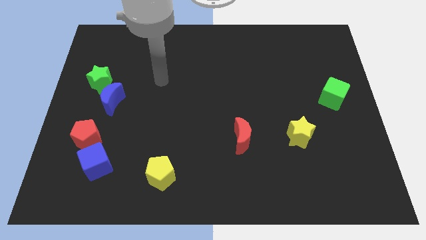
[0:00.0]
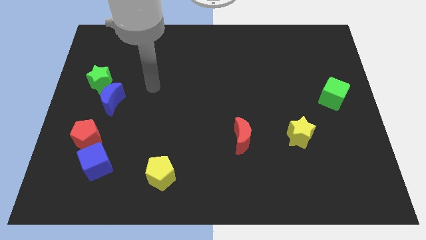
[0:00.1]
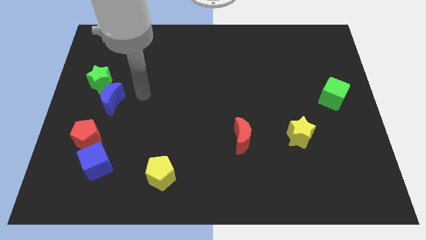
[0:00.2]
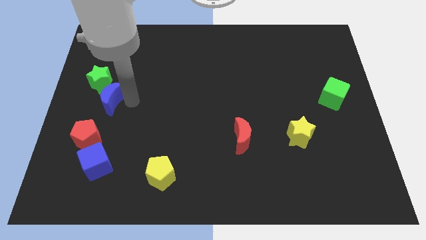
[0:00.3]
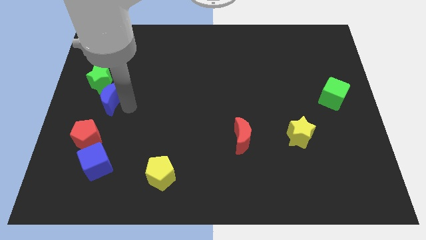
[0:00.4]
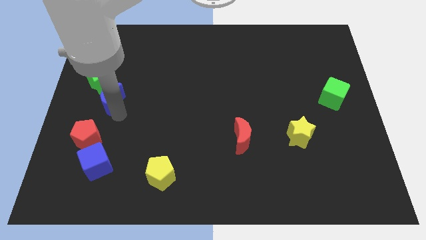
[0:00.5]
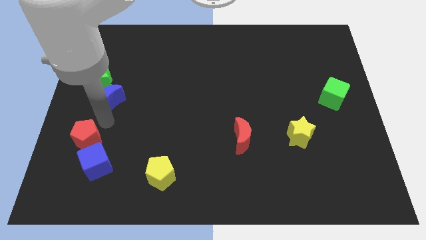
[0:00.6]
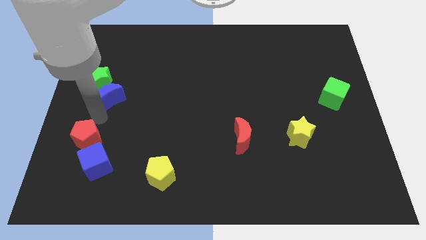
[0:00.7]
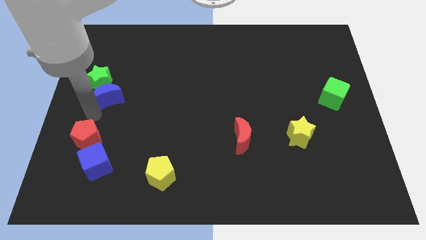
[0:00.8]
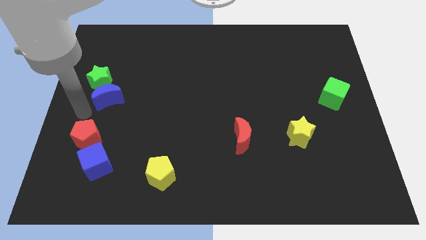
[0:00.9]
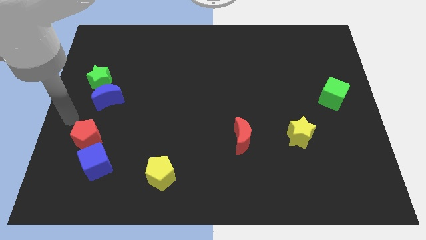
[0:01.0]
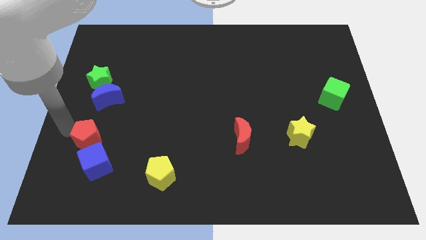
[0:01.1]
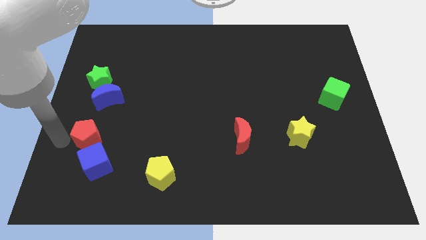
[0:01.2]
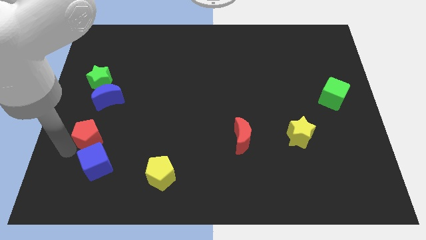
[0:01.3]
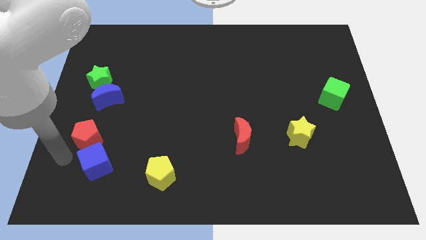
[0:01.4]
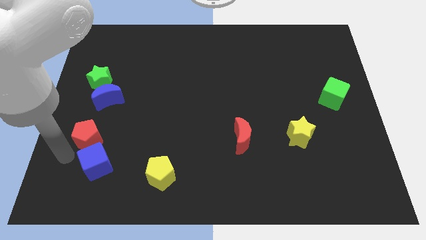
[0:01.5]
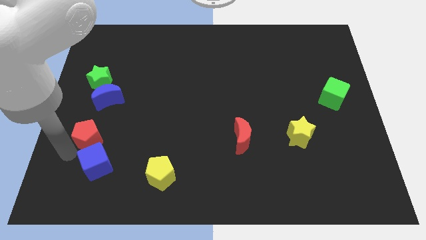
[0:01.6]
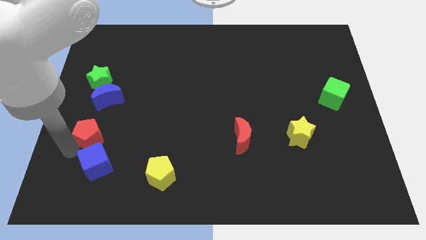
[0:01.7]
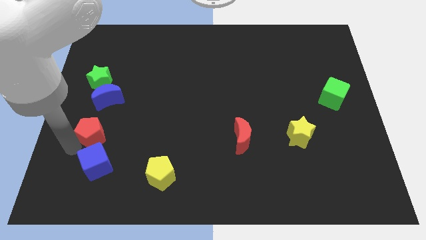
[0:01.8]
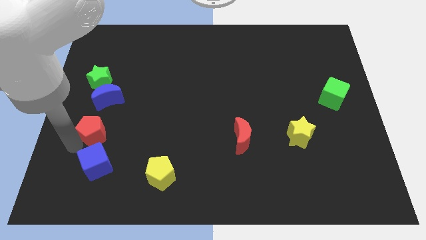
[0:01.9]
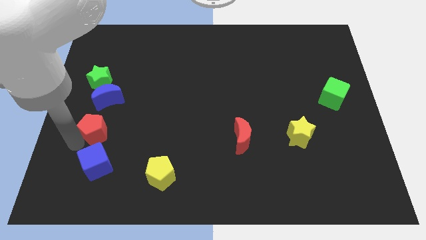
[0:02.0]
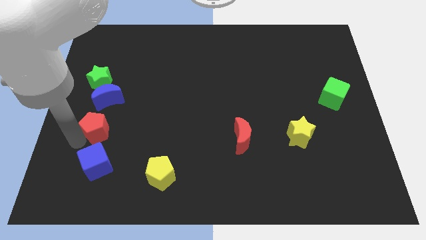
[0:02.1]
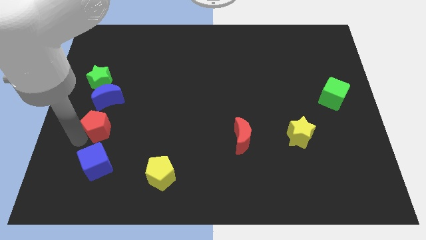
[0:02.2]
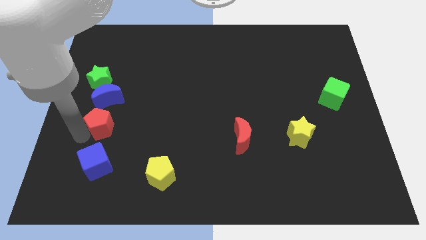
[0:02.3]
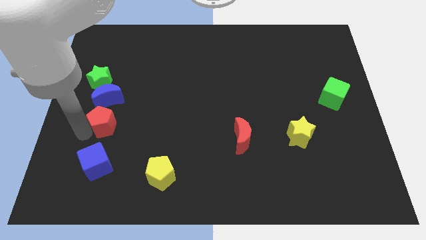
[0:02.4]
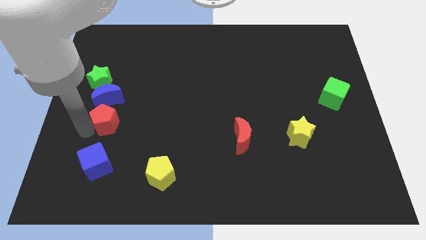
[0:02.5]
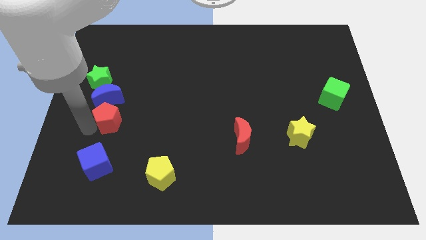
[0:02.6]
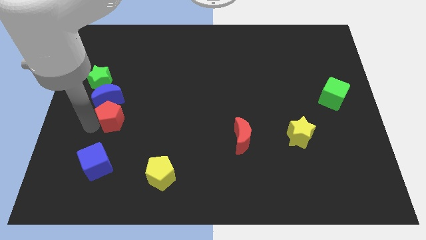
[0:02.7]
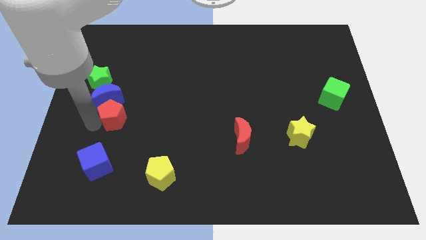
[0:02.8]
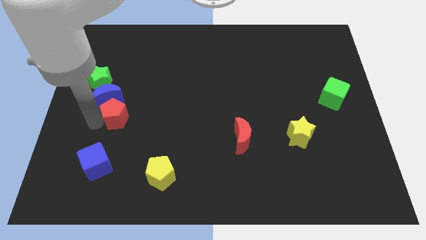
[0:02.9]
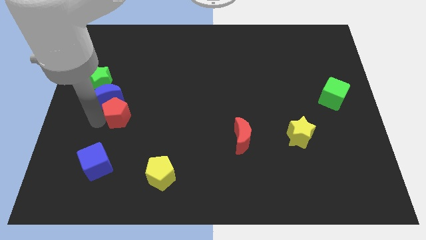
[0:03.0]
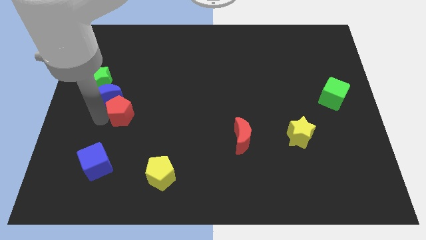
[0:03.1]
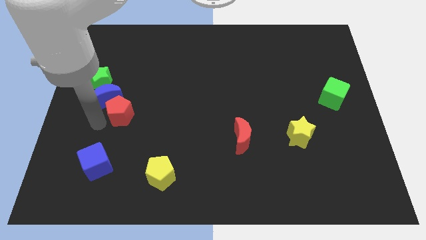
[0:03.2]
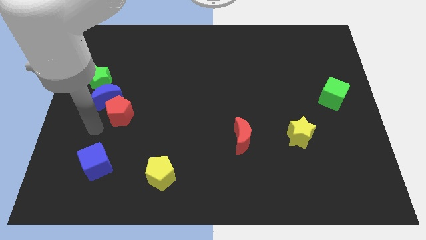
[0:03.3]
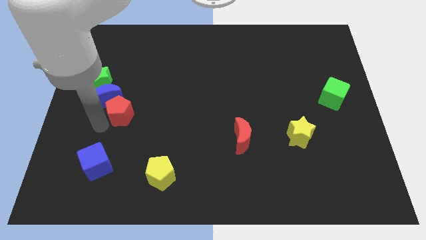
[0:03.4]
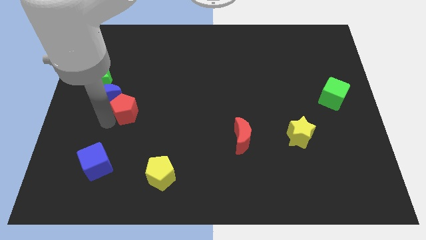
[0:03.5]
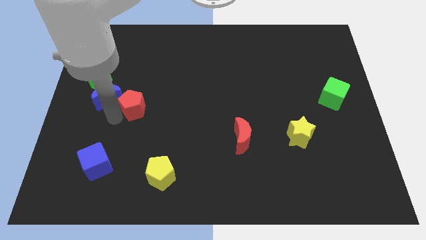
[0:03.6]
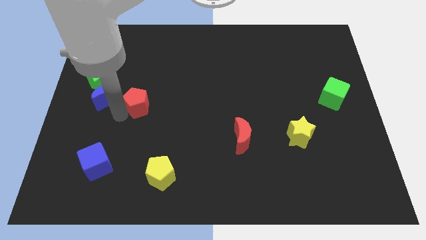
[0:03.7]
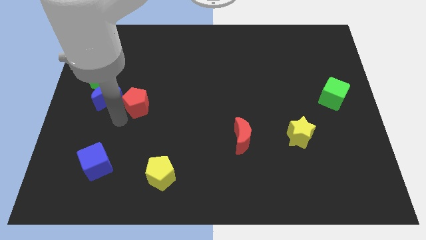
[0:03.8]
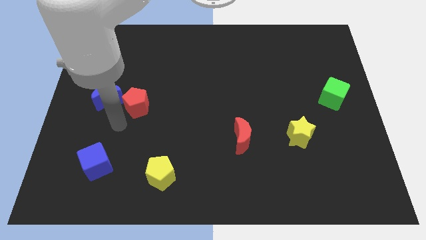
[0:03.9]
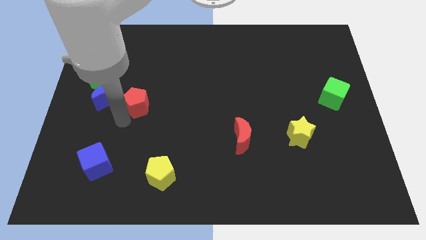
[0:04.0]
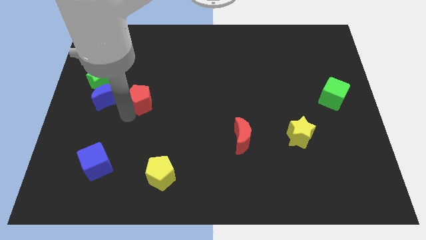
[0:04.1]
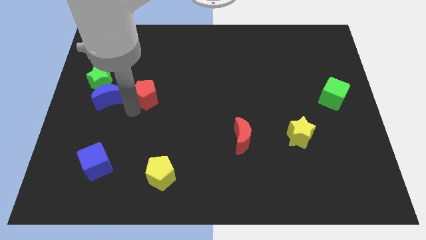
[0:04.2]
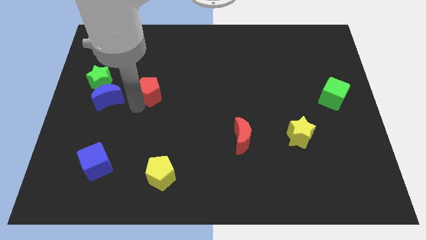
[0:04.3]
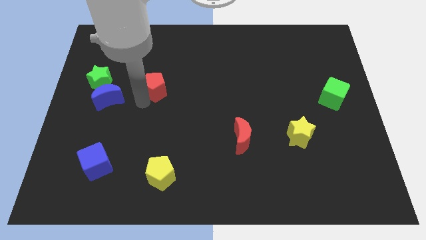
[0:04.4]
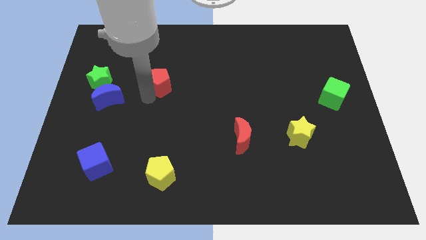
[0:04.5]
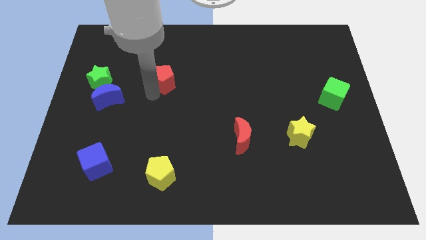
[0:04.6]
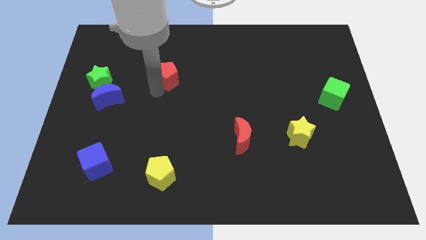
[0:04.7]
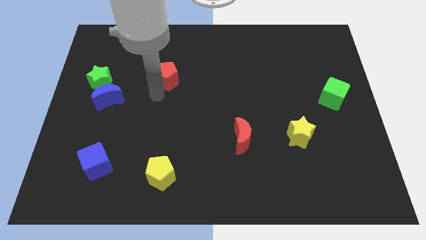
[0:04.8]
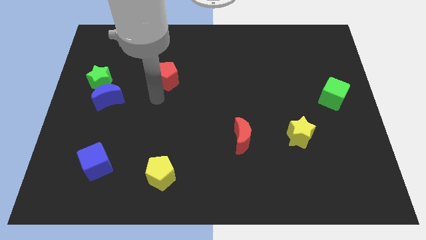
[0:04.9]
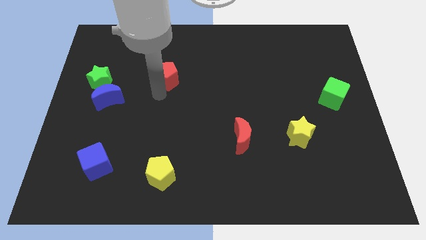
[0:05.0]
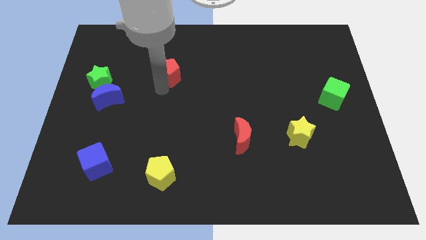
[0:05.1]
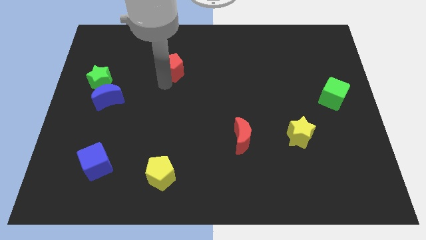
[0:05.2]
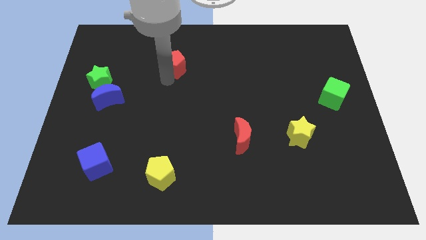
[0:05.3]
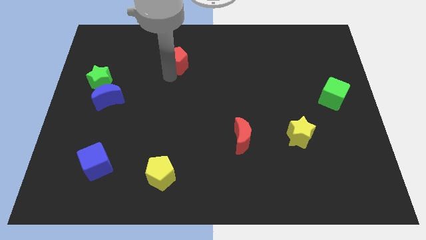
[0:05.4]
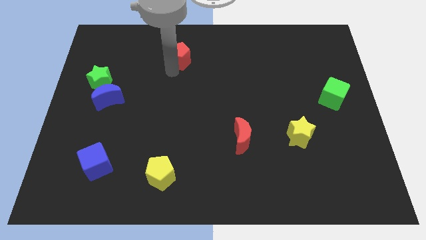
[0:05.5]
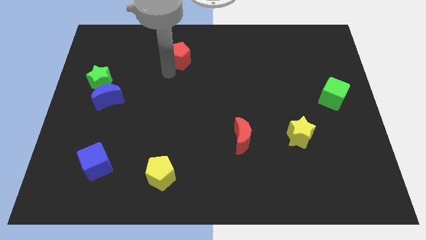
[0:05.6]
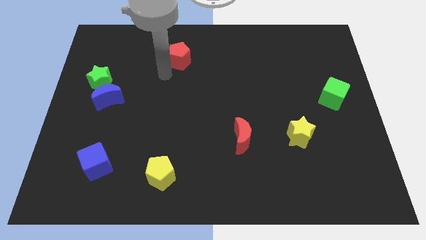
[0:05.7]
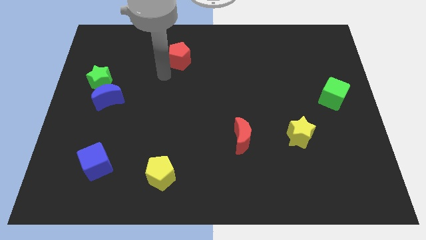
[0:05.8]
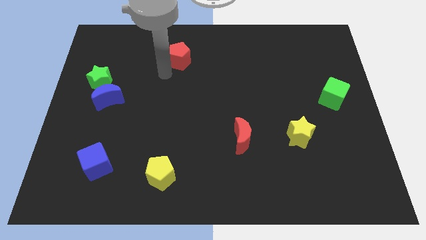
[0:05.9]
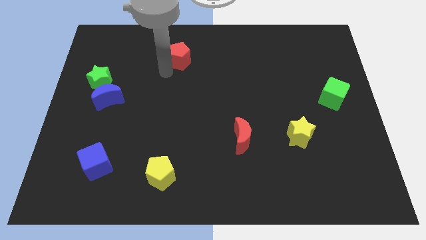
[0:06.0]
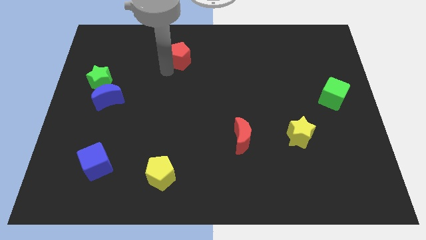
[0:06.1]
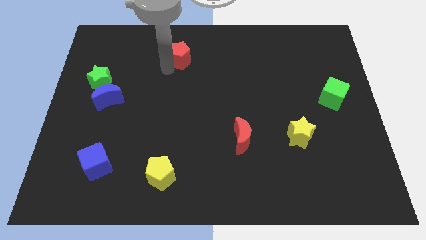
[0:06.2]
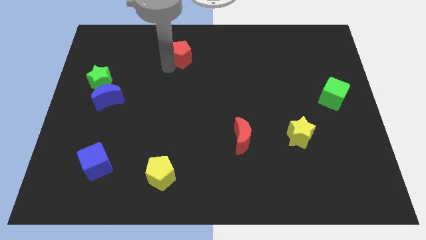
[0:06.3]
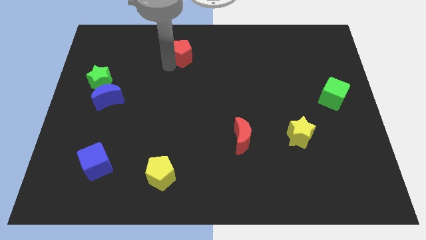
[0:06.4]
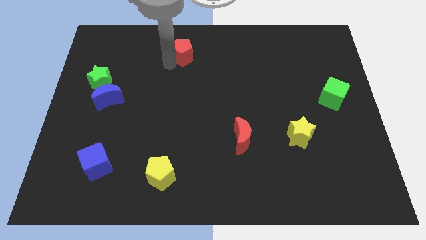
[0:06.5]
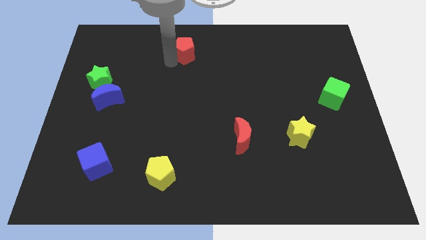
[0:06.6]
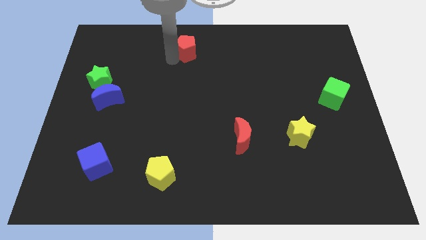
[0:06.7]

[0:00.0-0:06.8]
move the red pentagon to the towards your base

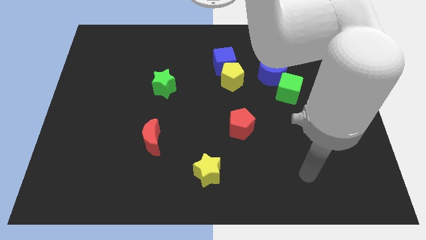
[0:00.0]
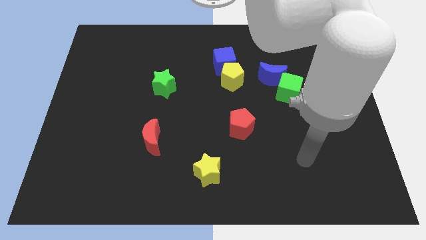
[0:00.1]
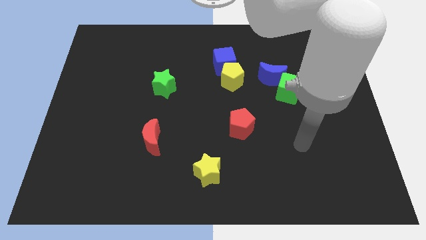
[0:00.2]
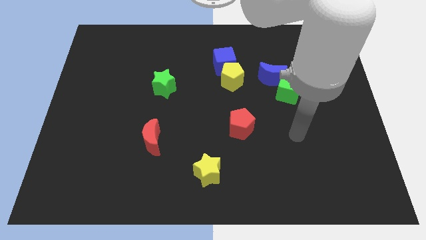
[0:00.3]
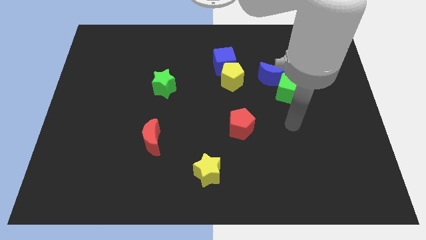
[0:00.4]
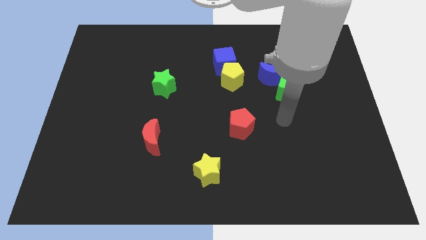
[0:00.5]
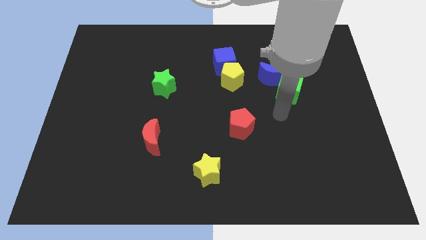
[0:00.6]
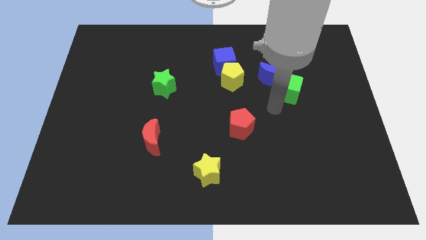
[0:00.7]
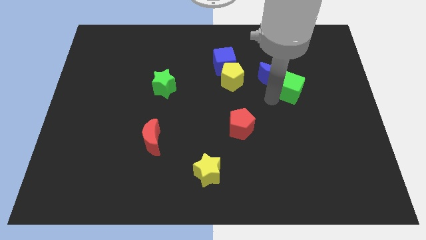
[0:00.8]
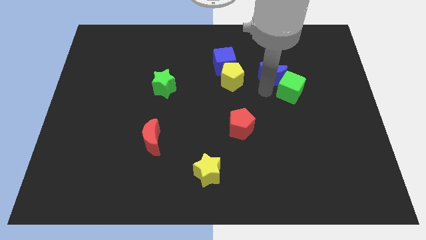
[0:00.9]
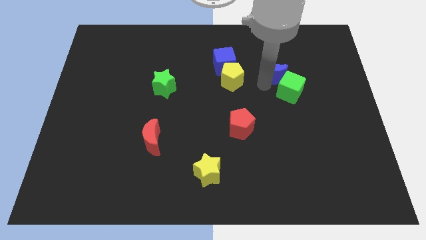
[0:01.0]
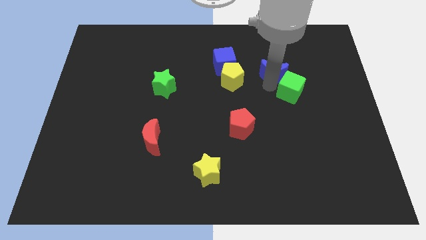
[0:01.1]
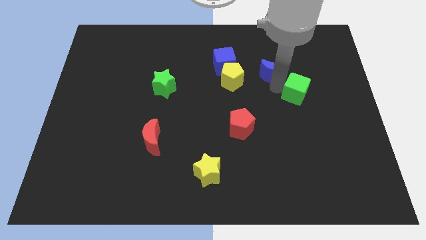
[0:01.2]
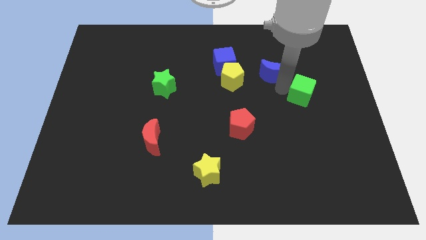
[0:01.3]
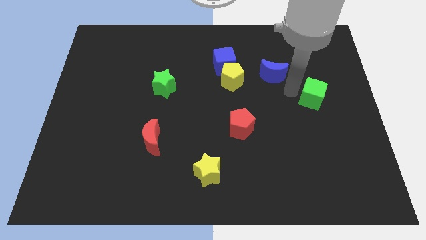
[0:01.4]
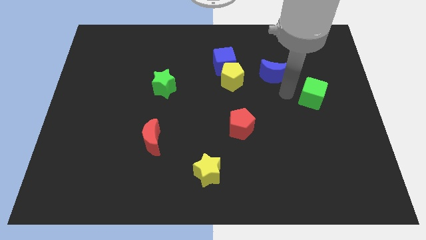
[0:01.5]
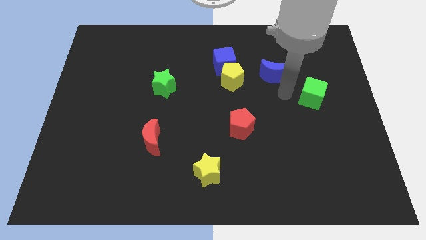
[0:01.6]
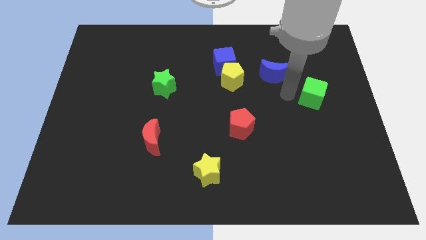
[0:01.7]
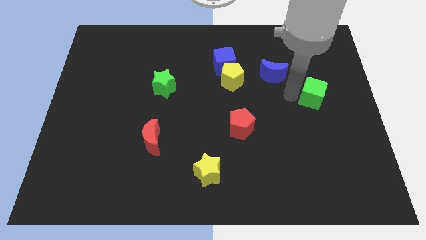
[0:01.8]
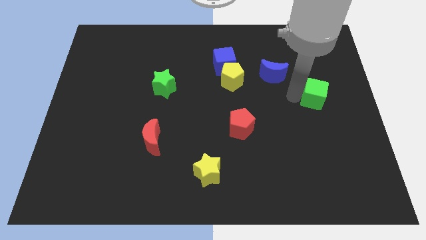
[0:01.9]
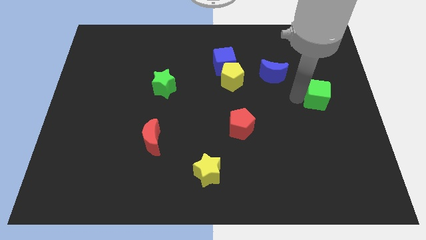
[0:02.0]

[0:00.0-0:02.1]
push the green cube to the right side of the board
